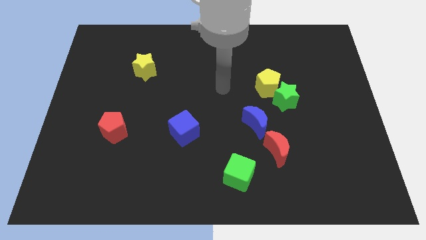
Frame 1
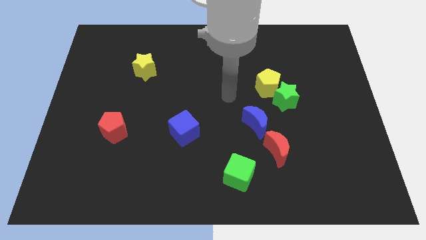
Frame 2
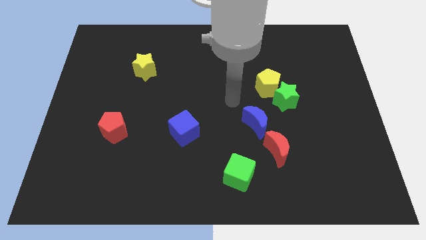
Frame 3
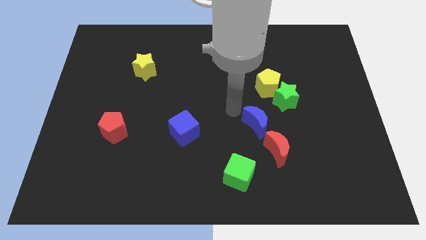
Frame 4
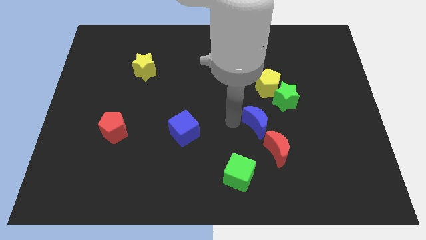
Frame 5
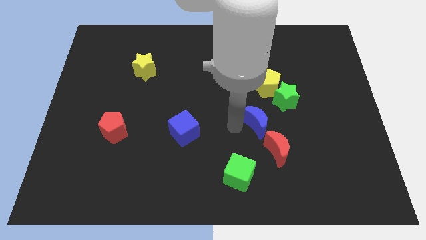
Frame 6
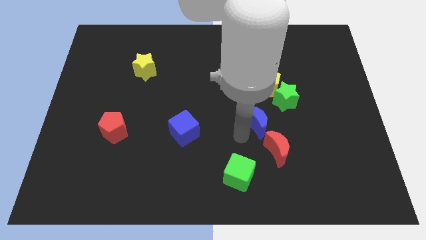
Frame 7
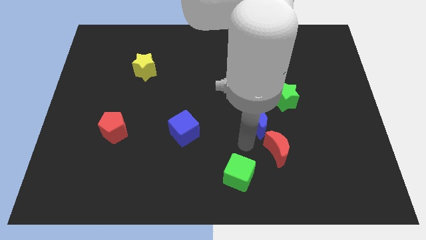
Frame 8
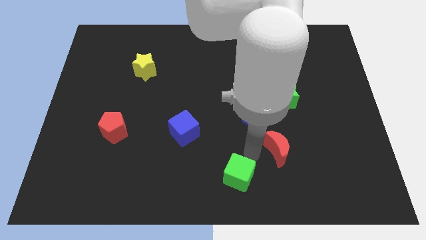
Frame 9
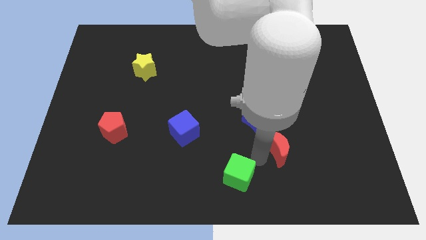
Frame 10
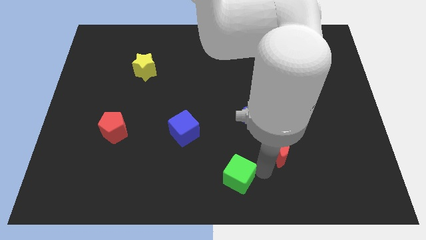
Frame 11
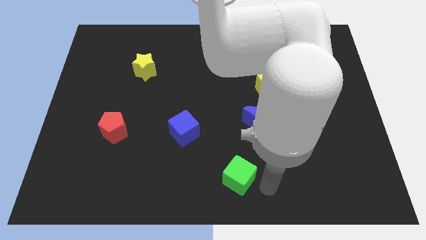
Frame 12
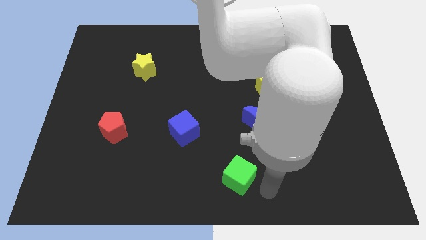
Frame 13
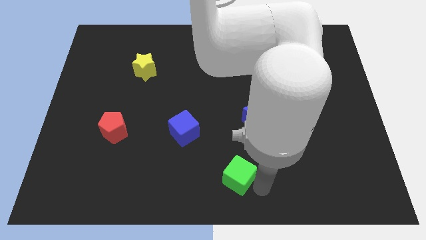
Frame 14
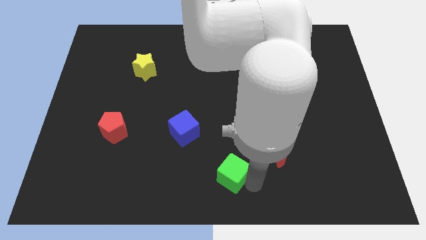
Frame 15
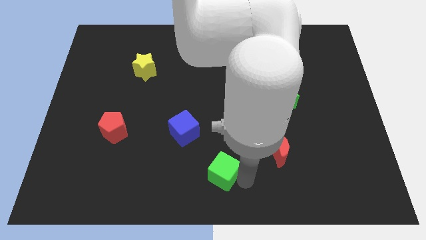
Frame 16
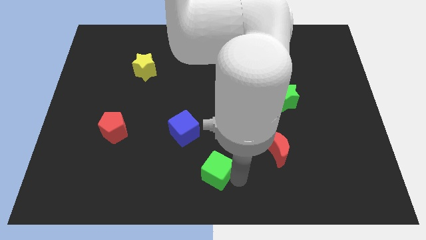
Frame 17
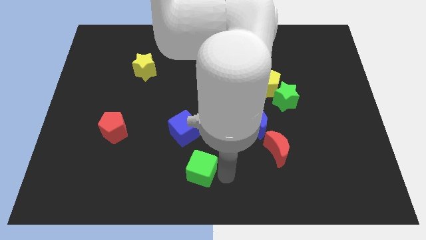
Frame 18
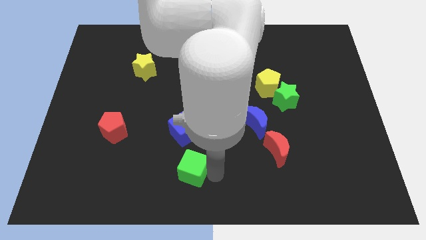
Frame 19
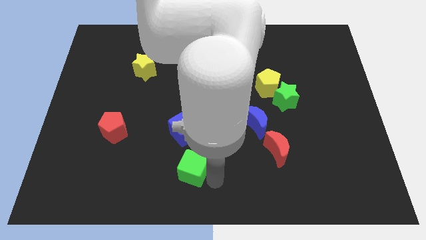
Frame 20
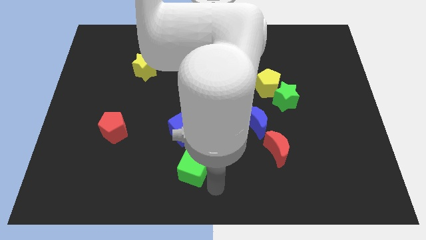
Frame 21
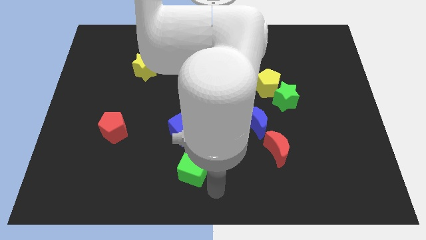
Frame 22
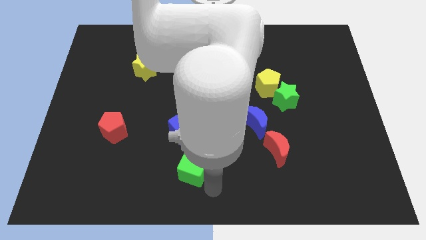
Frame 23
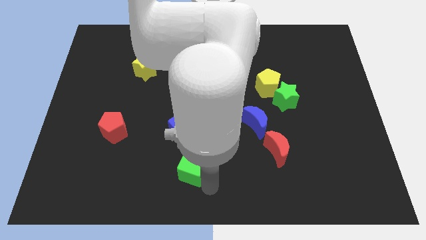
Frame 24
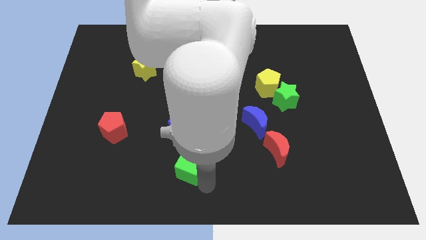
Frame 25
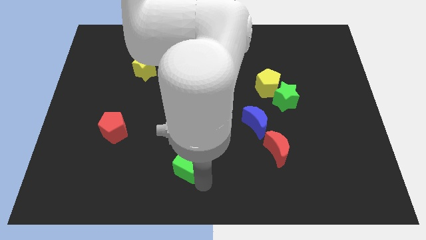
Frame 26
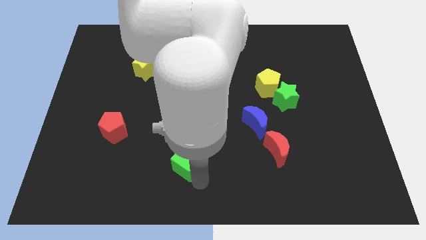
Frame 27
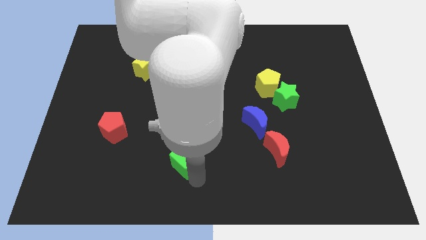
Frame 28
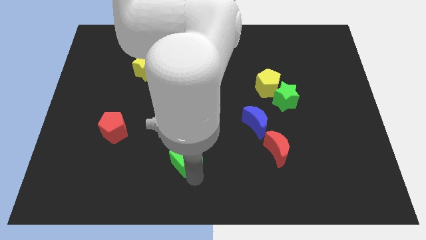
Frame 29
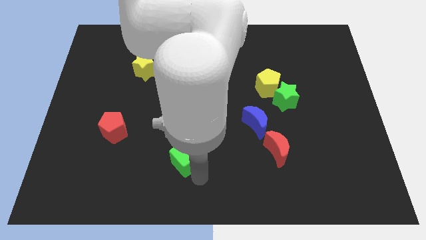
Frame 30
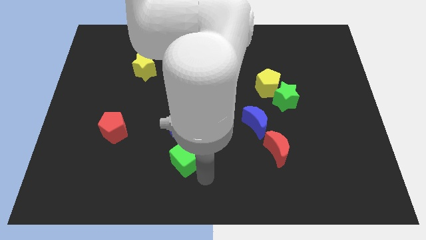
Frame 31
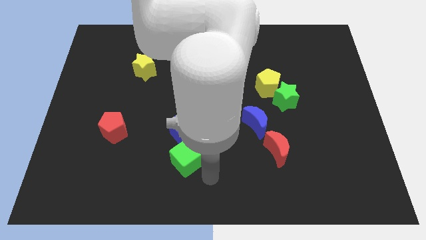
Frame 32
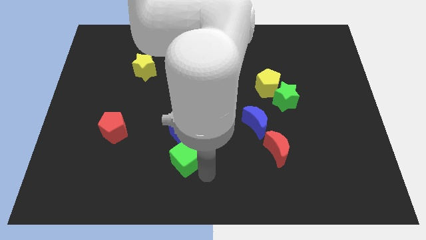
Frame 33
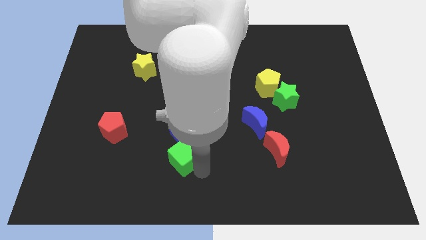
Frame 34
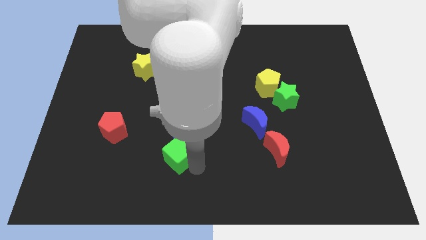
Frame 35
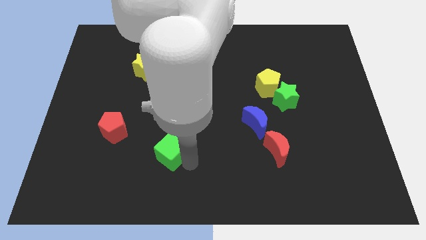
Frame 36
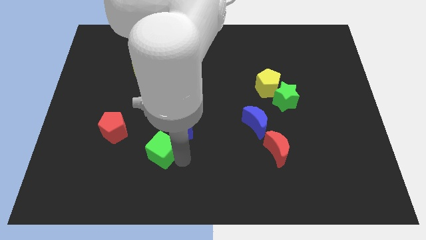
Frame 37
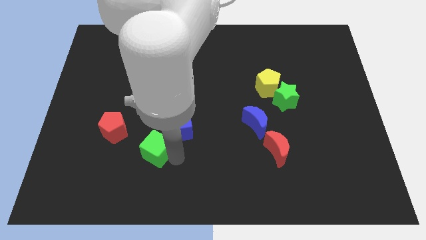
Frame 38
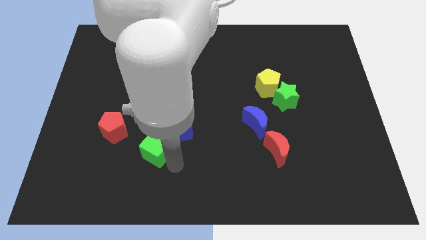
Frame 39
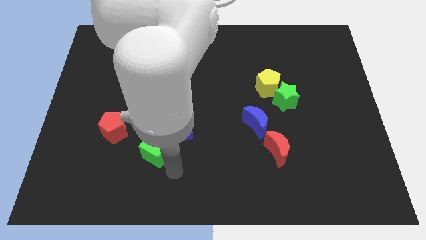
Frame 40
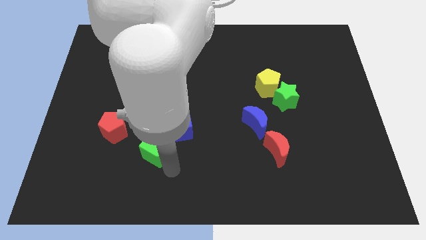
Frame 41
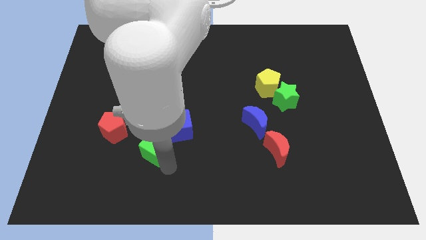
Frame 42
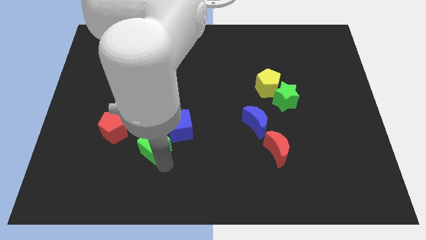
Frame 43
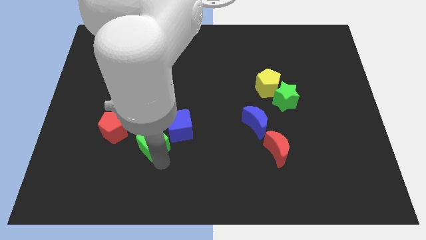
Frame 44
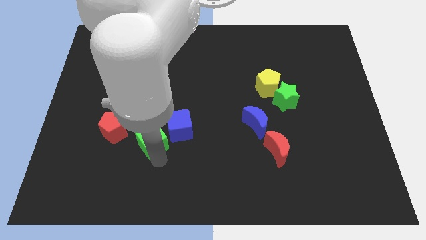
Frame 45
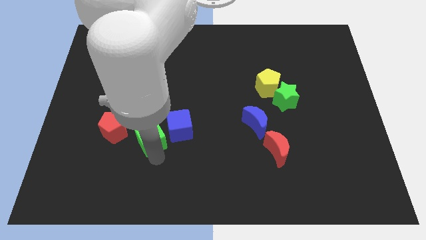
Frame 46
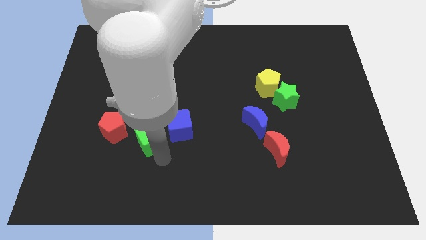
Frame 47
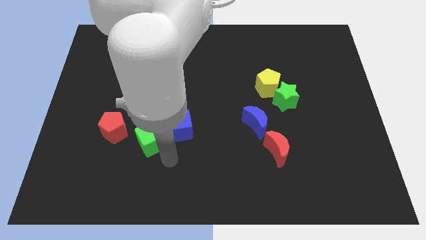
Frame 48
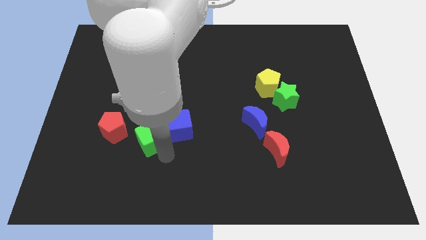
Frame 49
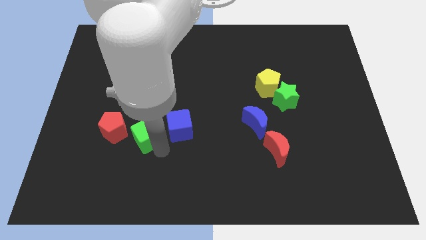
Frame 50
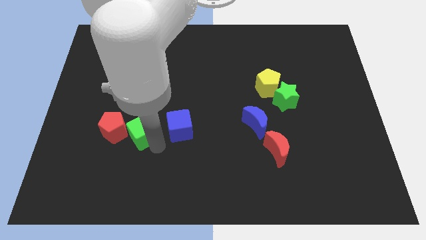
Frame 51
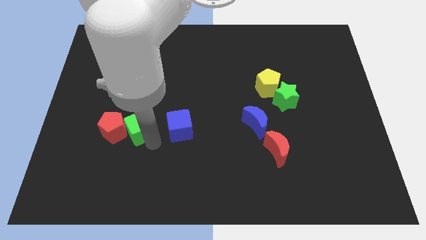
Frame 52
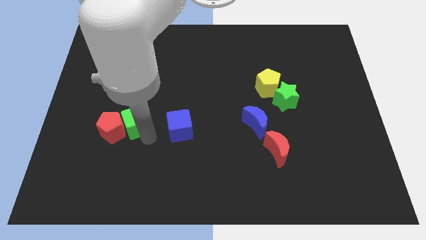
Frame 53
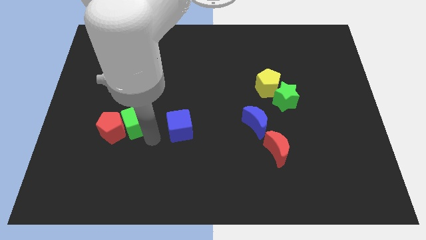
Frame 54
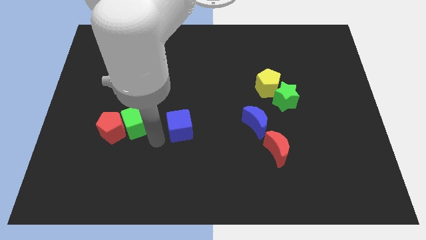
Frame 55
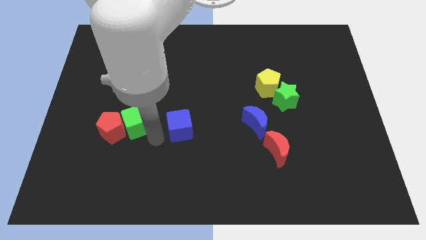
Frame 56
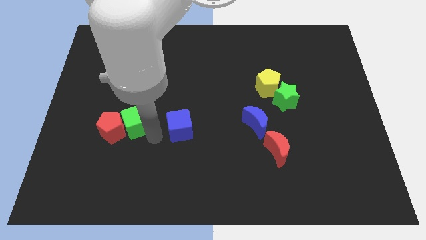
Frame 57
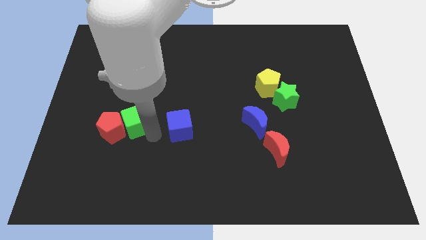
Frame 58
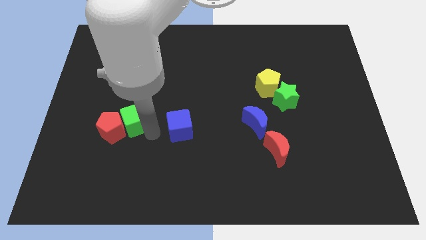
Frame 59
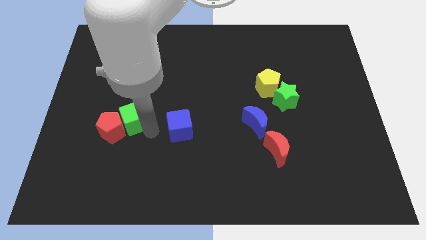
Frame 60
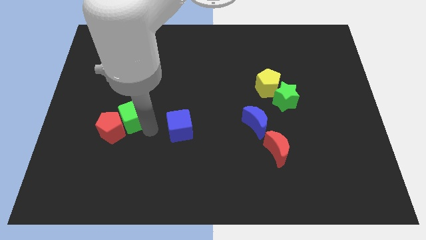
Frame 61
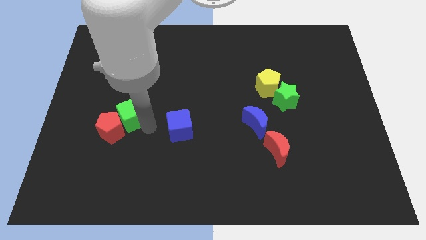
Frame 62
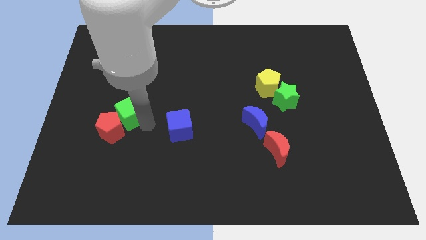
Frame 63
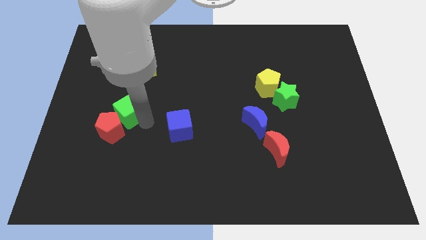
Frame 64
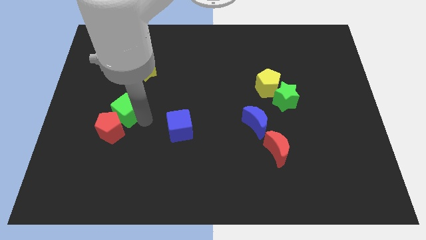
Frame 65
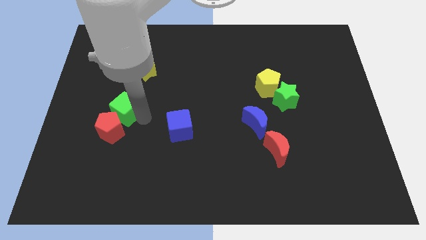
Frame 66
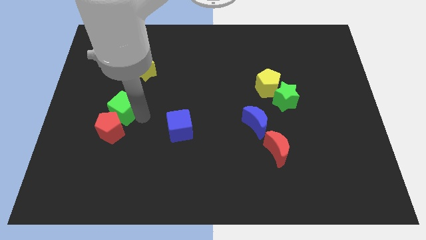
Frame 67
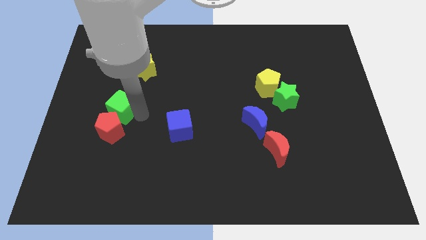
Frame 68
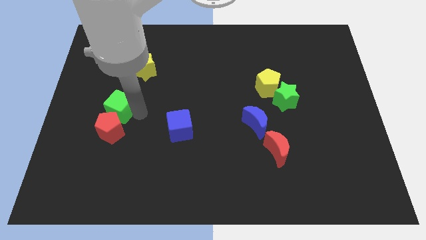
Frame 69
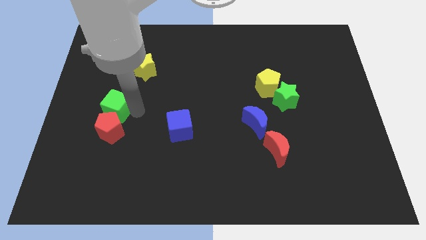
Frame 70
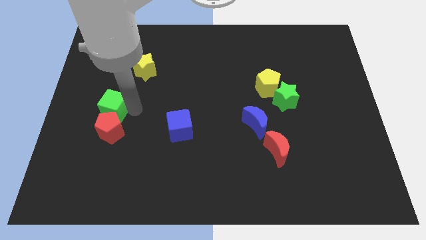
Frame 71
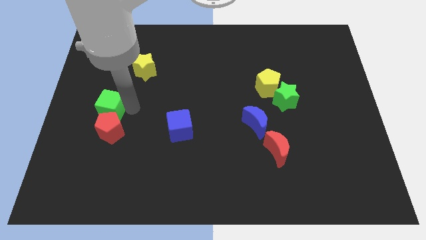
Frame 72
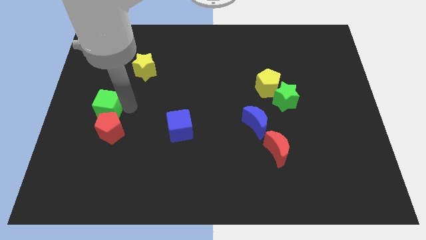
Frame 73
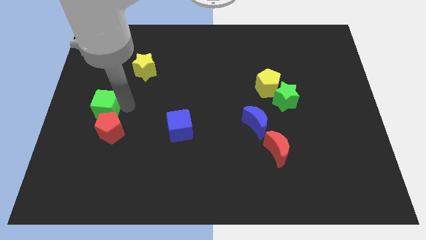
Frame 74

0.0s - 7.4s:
move the green cube to the center left
